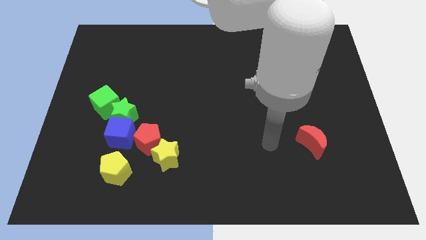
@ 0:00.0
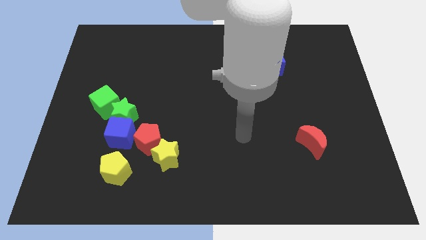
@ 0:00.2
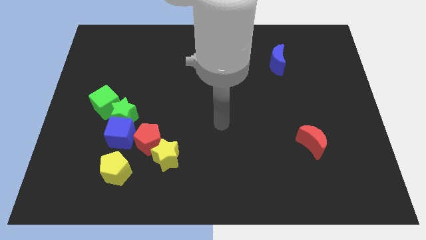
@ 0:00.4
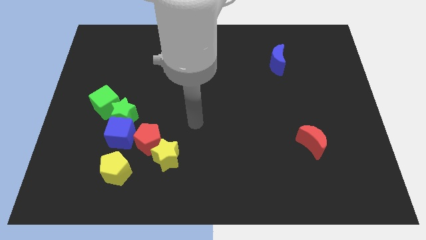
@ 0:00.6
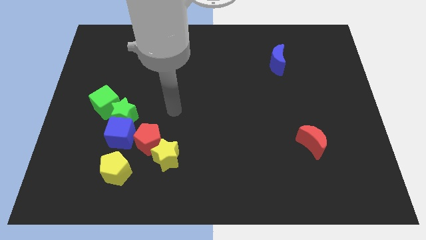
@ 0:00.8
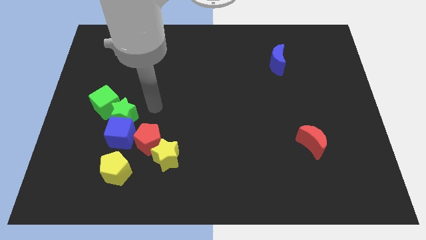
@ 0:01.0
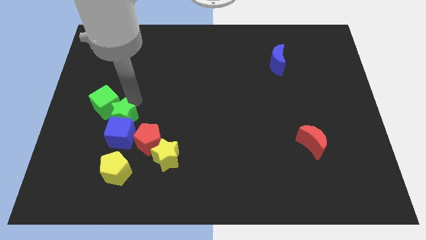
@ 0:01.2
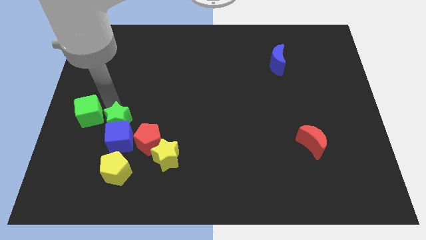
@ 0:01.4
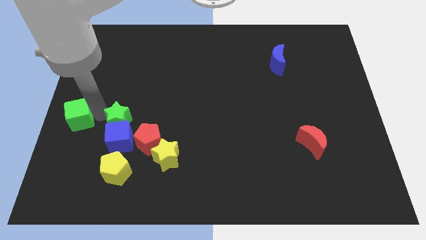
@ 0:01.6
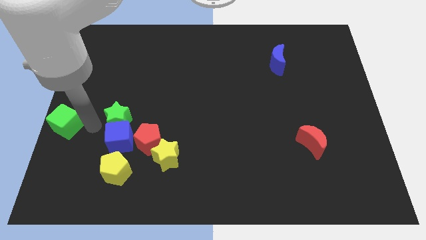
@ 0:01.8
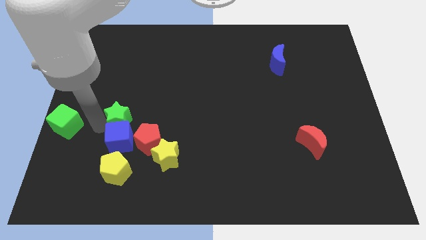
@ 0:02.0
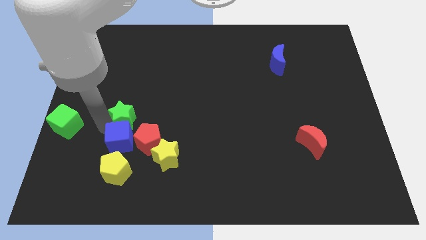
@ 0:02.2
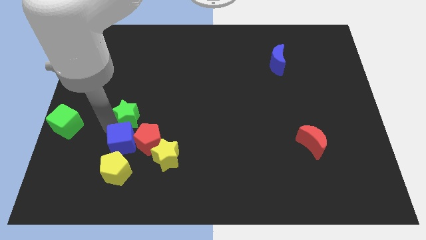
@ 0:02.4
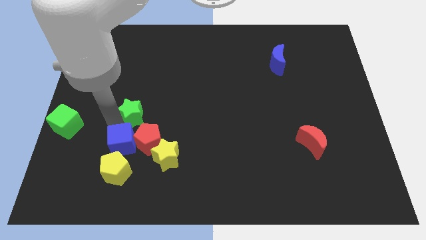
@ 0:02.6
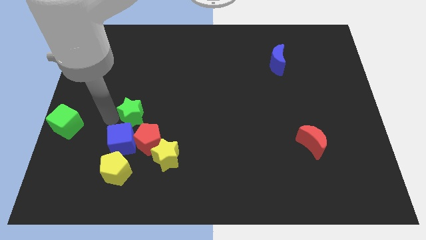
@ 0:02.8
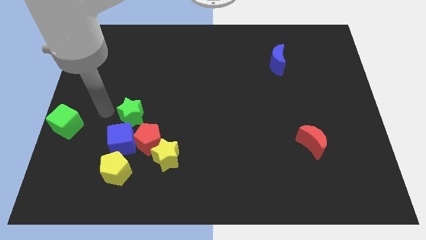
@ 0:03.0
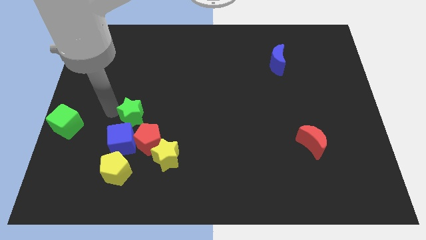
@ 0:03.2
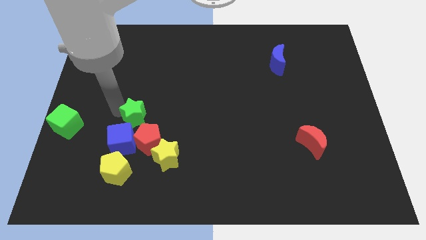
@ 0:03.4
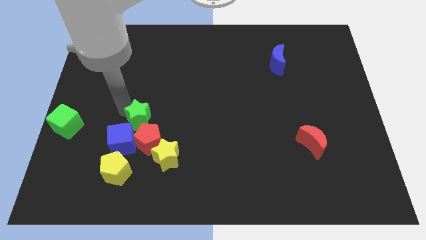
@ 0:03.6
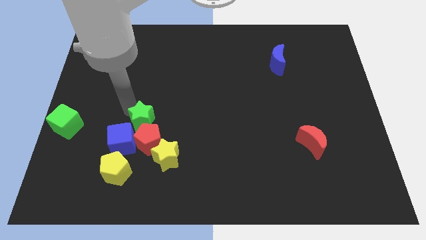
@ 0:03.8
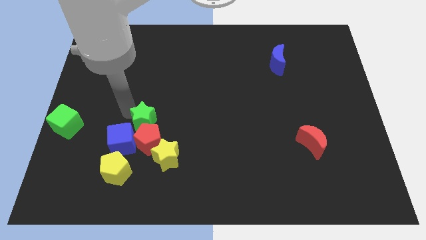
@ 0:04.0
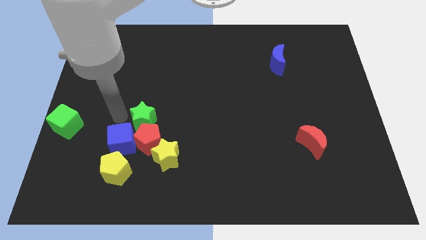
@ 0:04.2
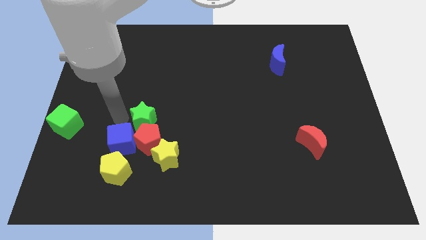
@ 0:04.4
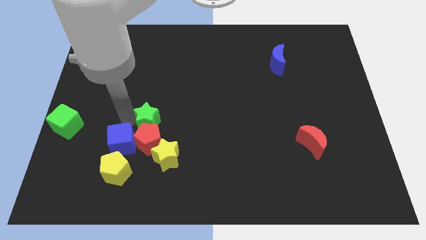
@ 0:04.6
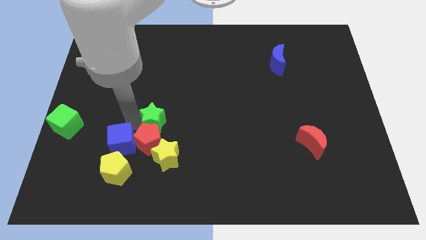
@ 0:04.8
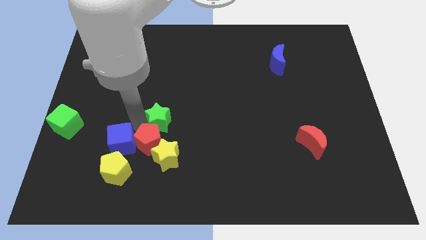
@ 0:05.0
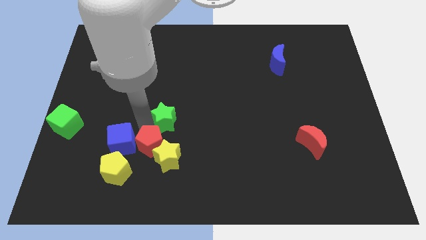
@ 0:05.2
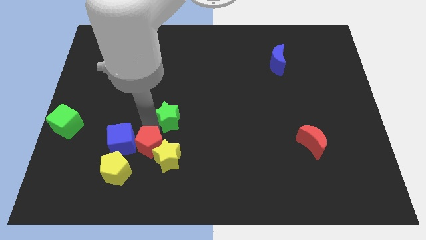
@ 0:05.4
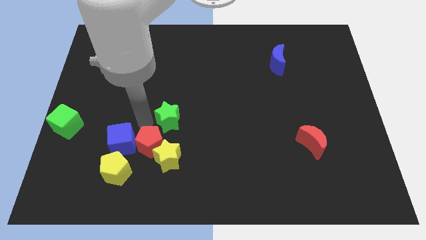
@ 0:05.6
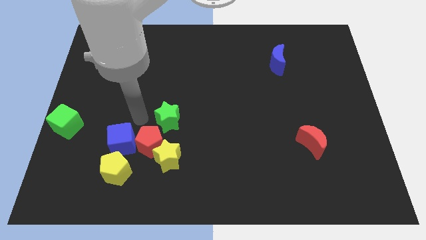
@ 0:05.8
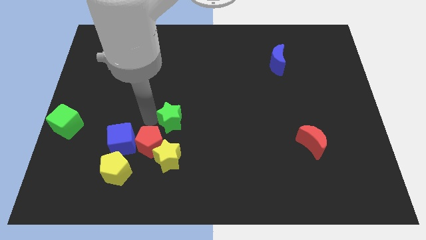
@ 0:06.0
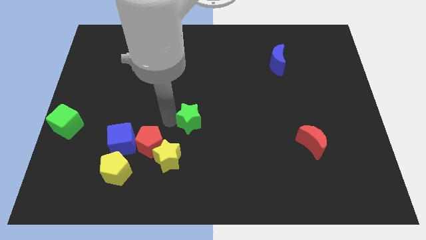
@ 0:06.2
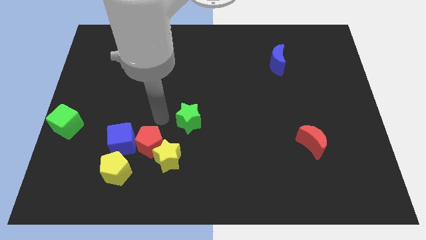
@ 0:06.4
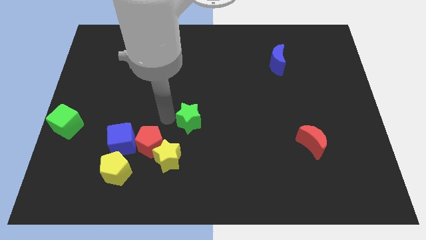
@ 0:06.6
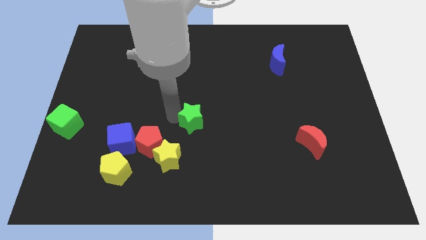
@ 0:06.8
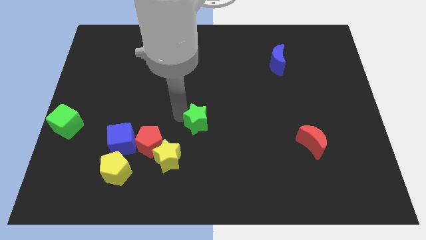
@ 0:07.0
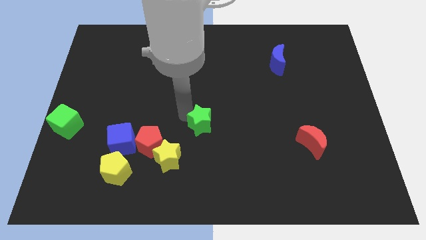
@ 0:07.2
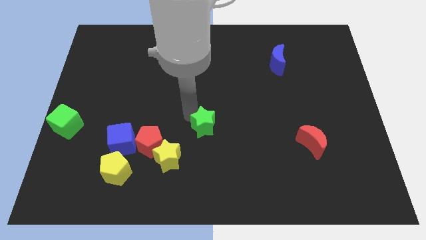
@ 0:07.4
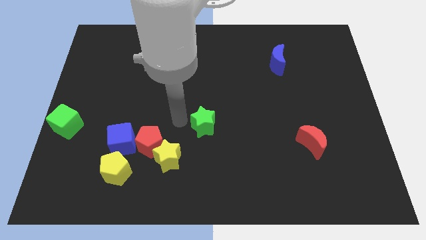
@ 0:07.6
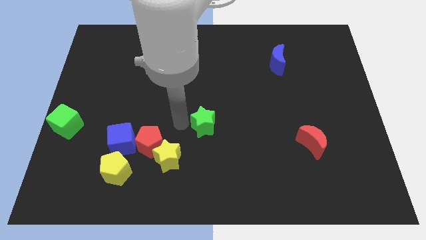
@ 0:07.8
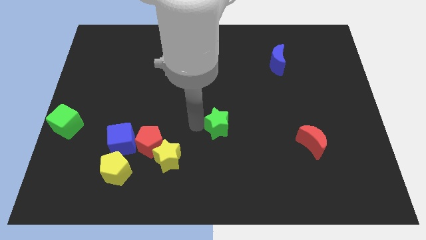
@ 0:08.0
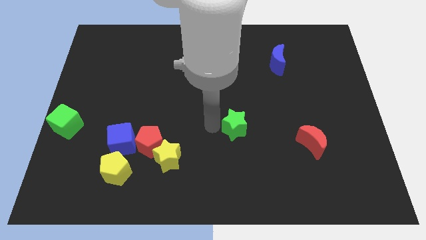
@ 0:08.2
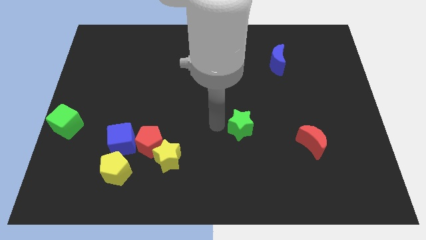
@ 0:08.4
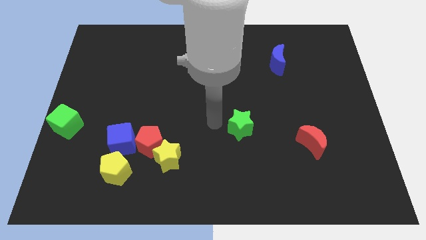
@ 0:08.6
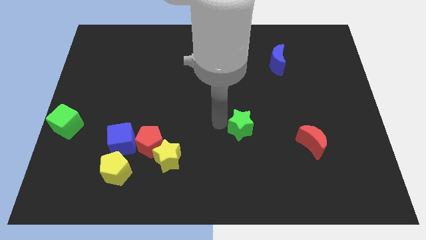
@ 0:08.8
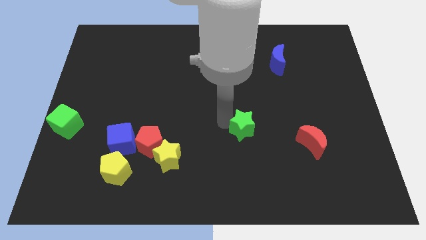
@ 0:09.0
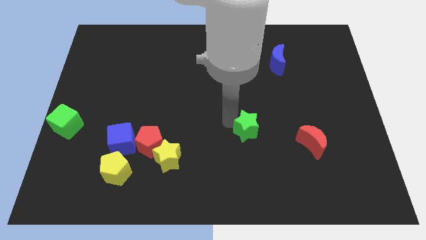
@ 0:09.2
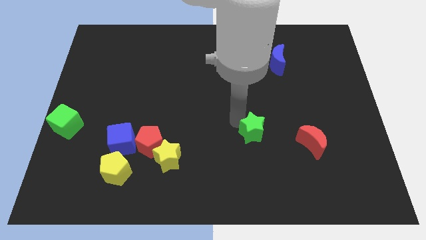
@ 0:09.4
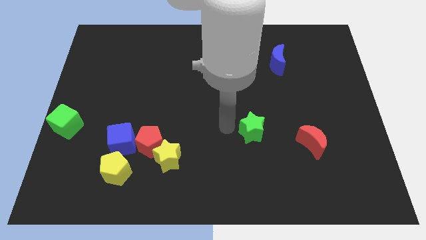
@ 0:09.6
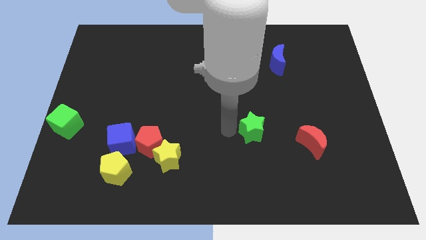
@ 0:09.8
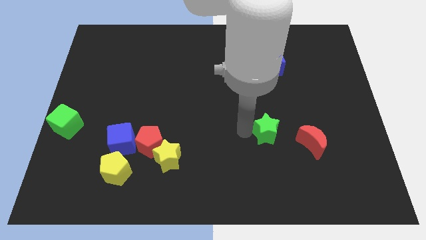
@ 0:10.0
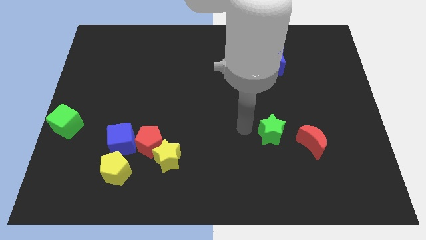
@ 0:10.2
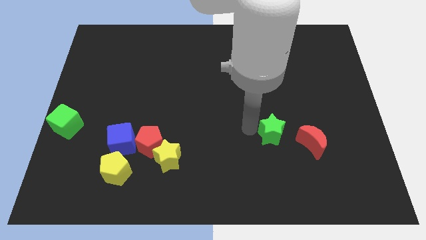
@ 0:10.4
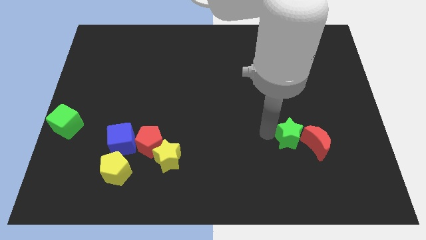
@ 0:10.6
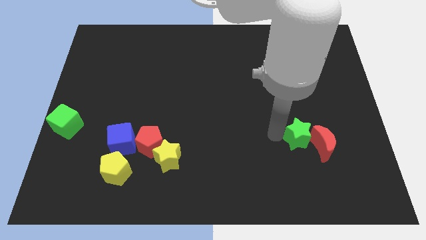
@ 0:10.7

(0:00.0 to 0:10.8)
put the green star next to the red moon

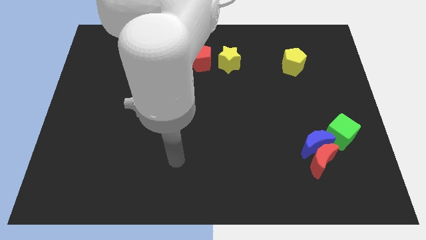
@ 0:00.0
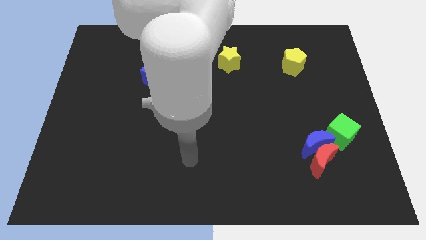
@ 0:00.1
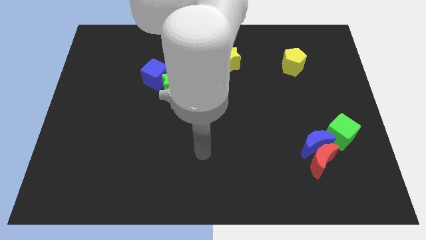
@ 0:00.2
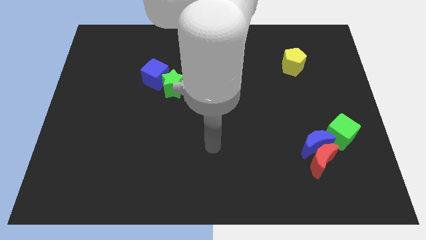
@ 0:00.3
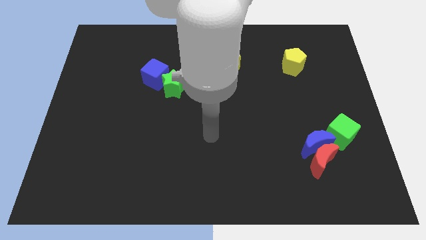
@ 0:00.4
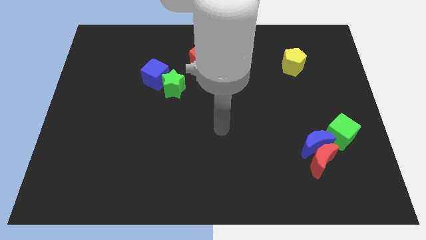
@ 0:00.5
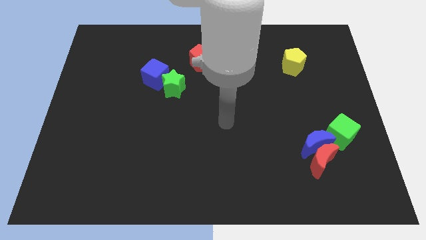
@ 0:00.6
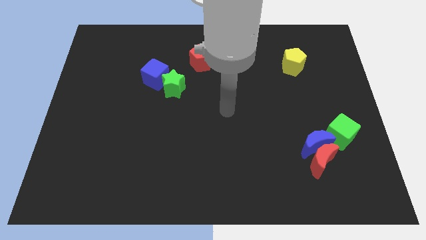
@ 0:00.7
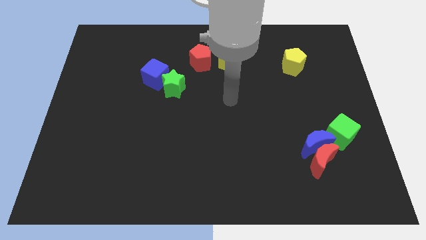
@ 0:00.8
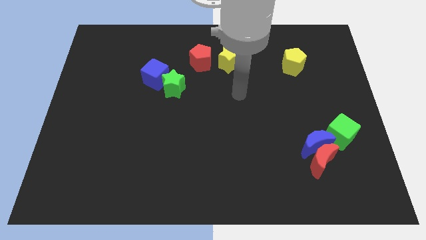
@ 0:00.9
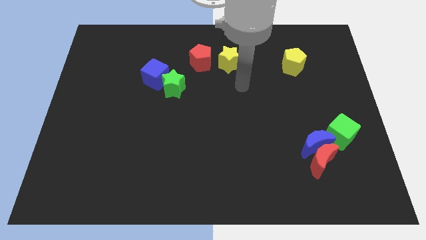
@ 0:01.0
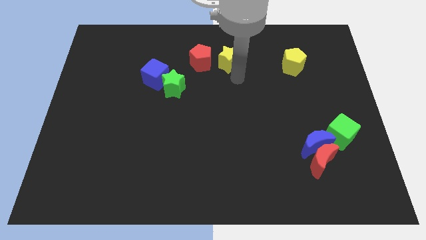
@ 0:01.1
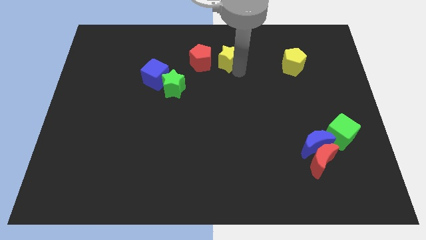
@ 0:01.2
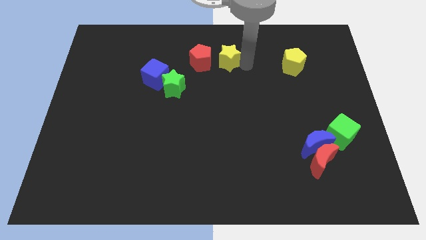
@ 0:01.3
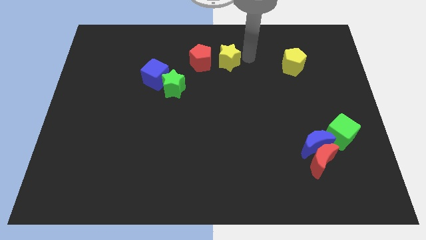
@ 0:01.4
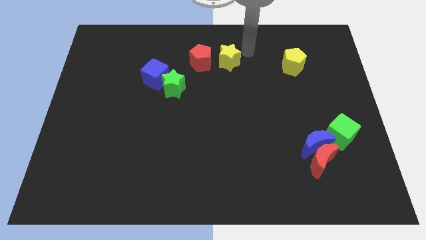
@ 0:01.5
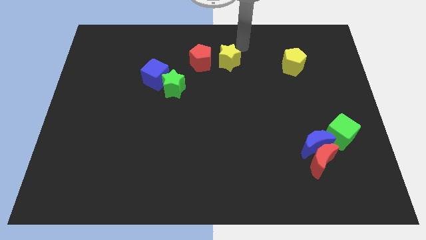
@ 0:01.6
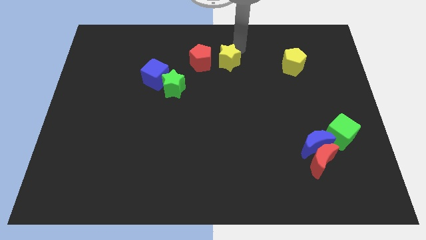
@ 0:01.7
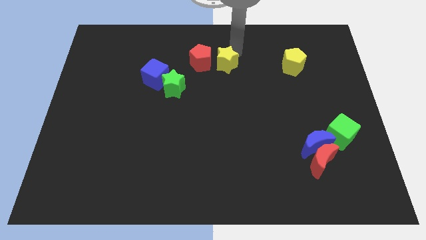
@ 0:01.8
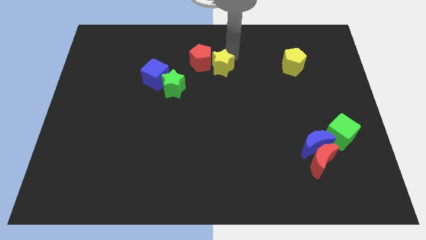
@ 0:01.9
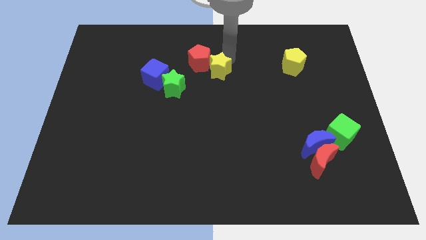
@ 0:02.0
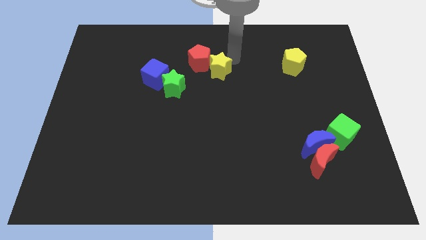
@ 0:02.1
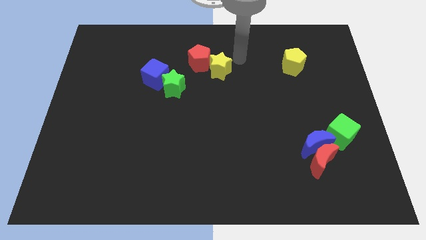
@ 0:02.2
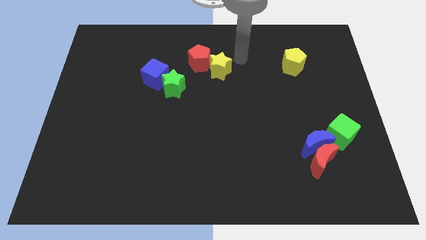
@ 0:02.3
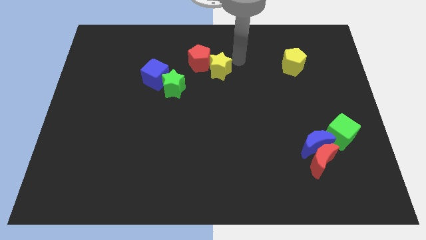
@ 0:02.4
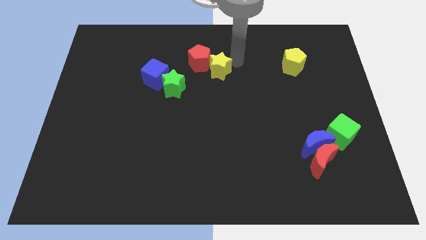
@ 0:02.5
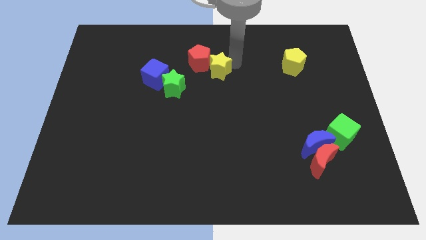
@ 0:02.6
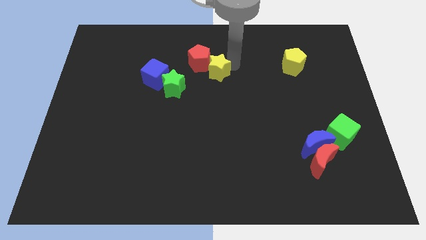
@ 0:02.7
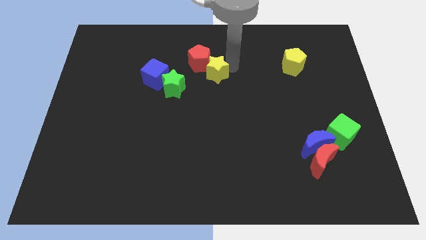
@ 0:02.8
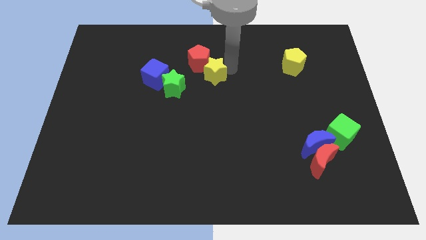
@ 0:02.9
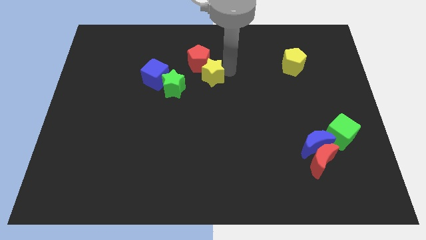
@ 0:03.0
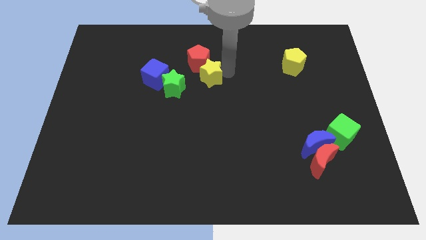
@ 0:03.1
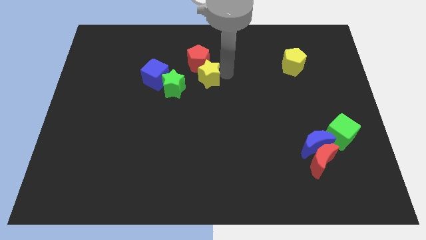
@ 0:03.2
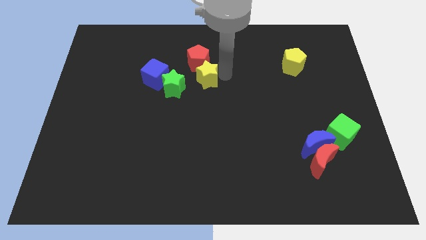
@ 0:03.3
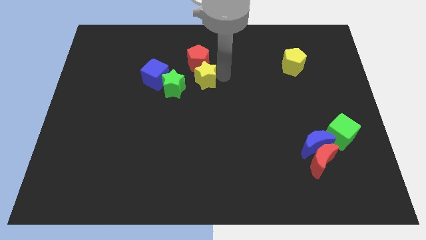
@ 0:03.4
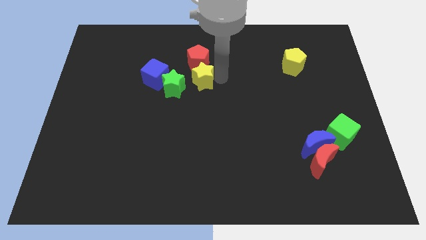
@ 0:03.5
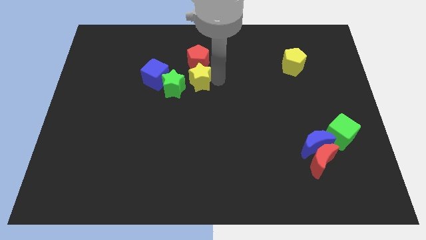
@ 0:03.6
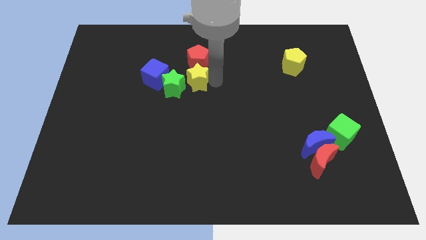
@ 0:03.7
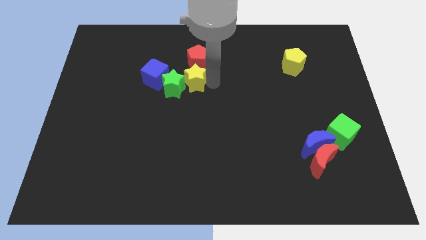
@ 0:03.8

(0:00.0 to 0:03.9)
push the yellow star next to the green star
